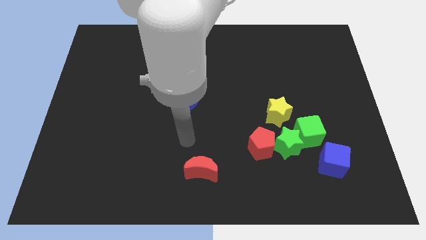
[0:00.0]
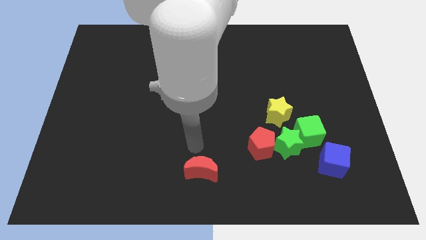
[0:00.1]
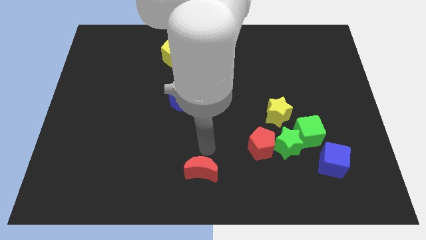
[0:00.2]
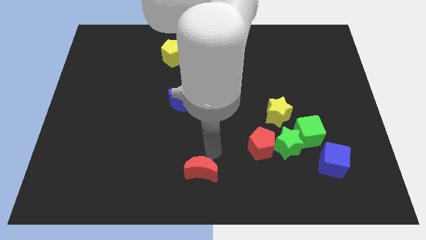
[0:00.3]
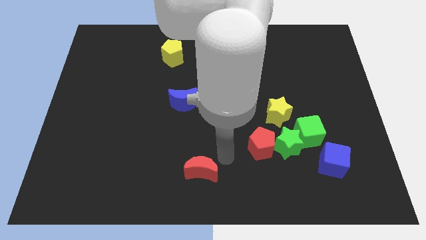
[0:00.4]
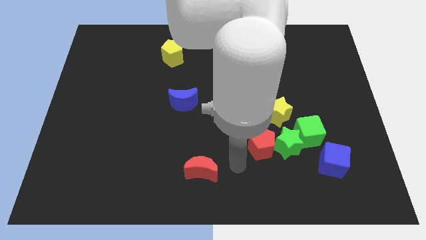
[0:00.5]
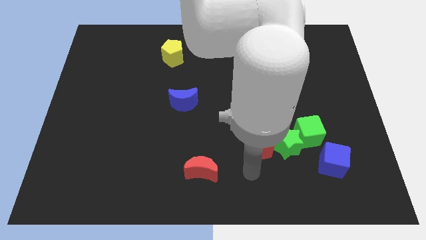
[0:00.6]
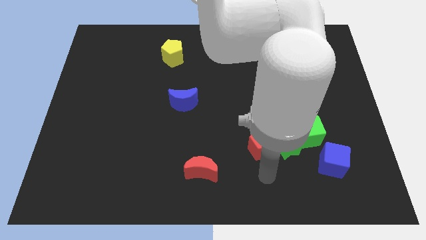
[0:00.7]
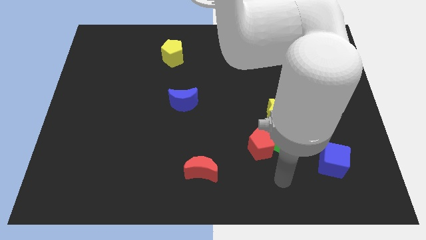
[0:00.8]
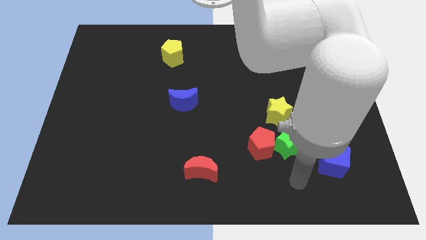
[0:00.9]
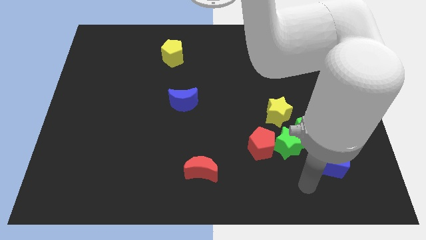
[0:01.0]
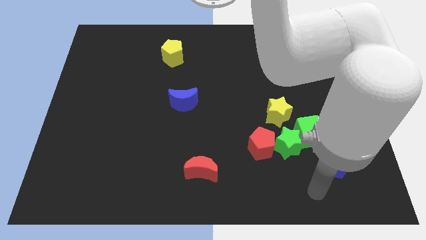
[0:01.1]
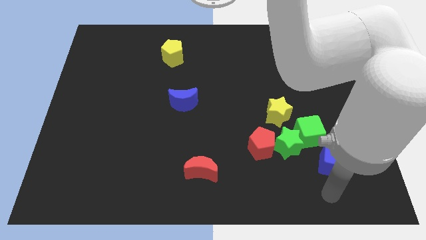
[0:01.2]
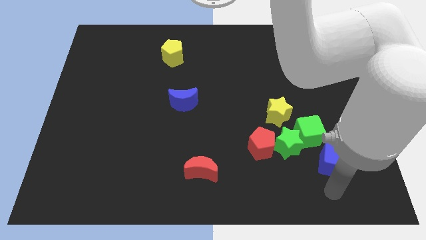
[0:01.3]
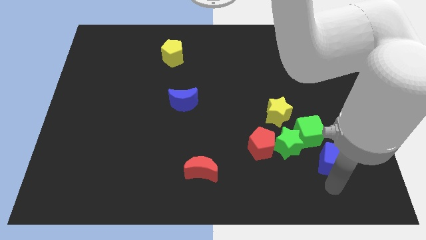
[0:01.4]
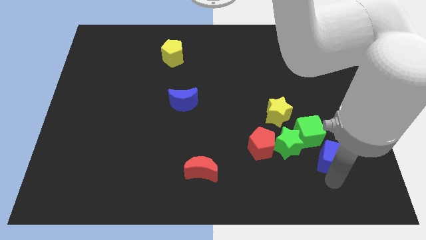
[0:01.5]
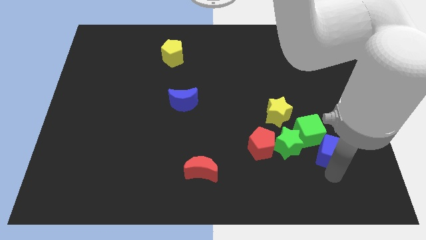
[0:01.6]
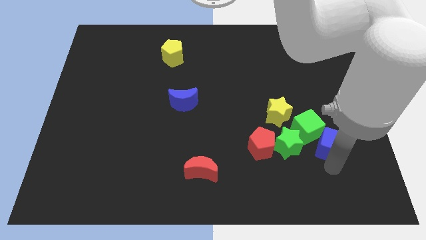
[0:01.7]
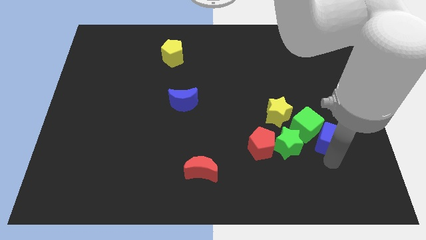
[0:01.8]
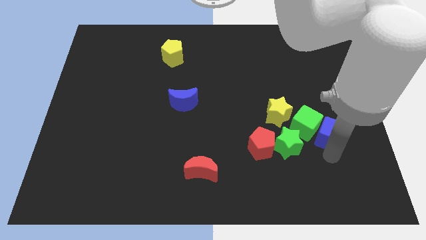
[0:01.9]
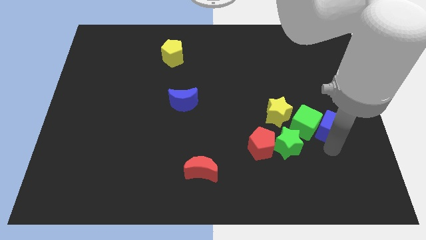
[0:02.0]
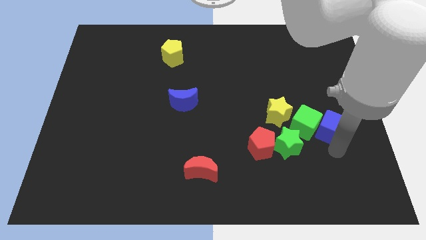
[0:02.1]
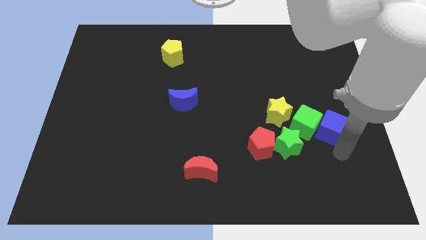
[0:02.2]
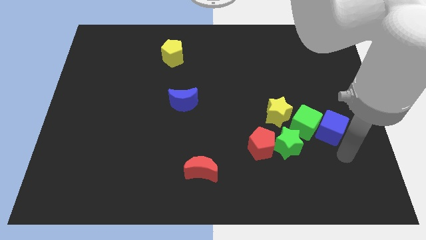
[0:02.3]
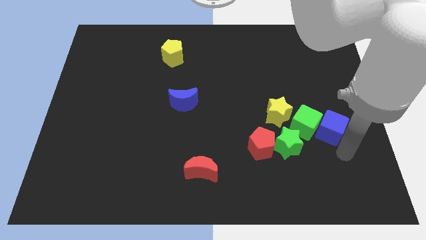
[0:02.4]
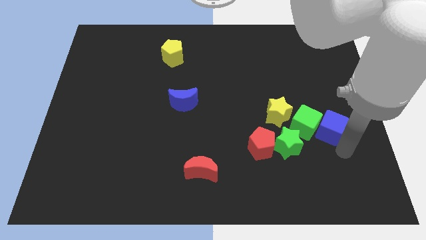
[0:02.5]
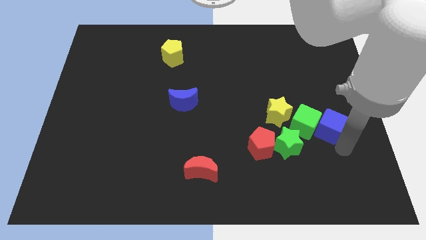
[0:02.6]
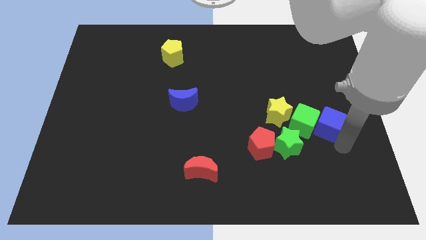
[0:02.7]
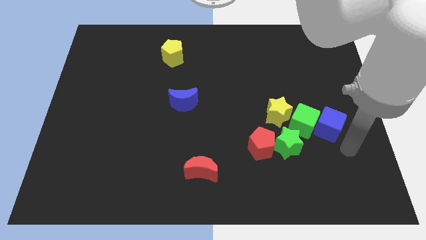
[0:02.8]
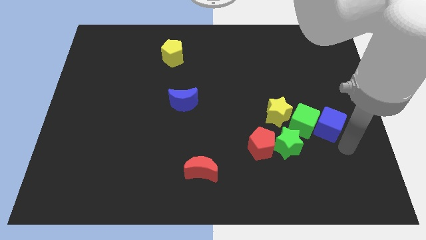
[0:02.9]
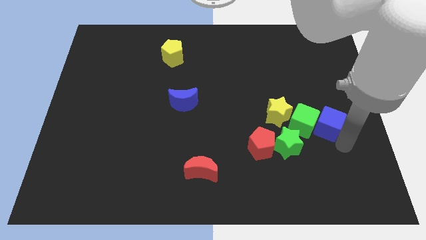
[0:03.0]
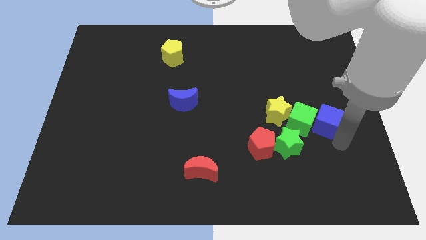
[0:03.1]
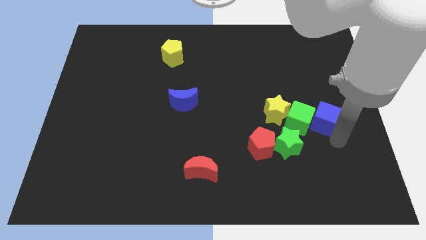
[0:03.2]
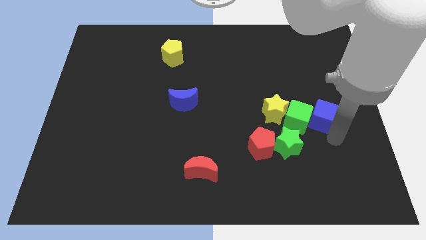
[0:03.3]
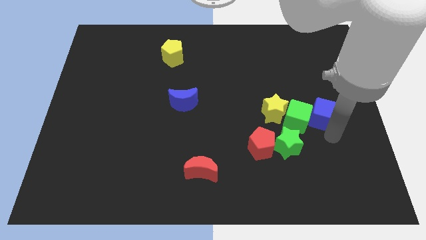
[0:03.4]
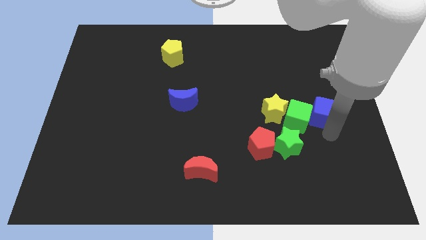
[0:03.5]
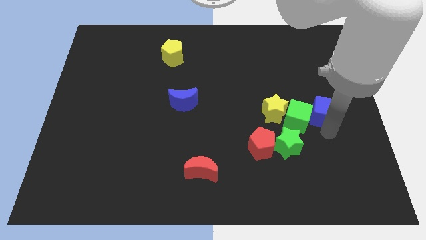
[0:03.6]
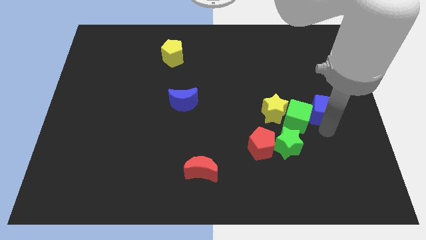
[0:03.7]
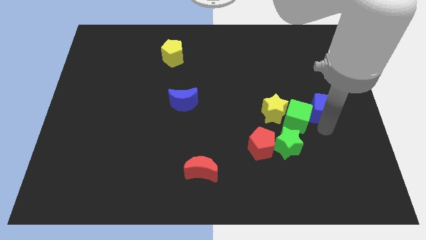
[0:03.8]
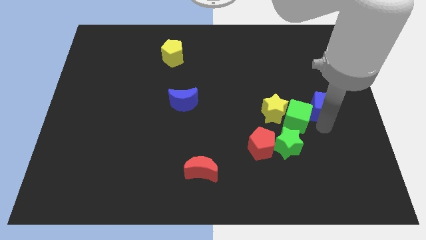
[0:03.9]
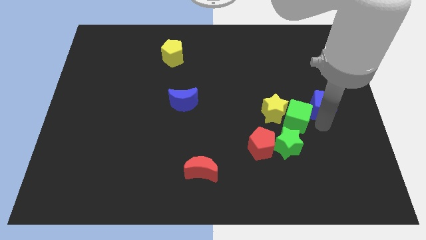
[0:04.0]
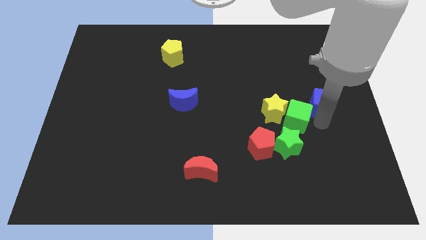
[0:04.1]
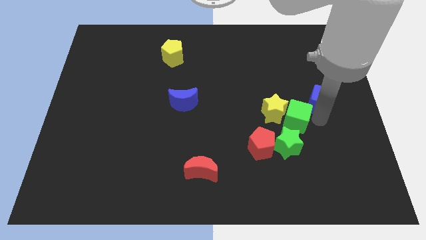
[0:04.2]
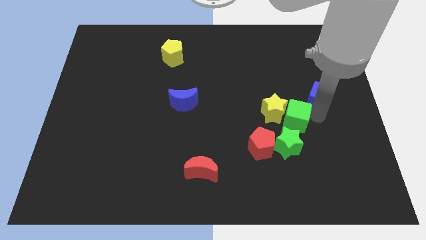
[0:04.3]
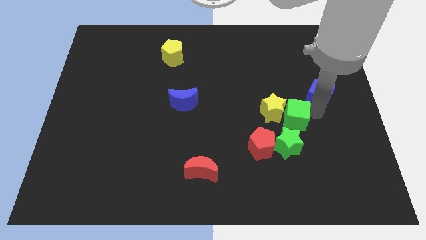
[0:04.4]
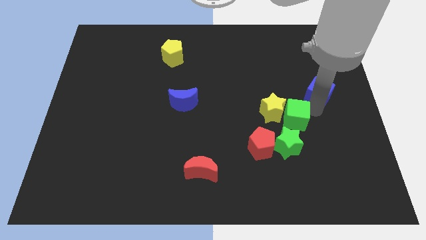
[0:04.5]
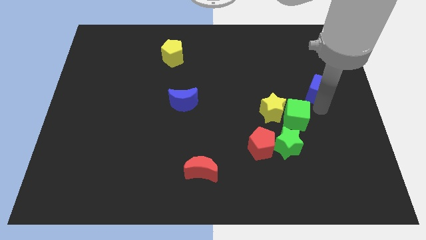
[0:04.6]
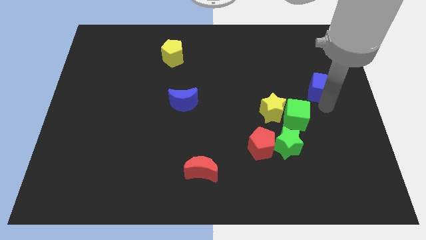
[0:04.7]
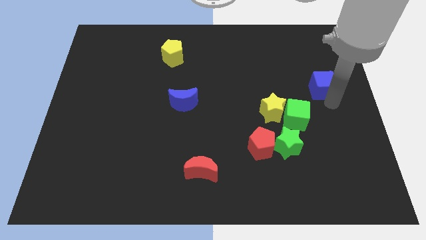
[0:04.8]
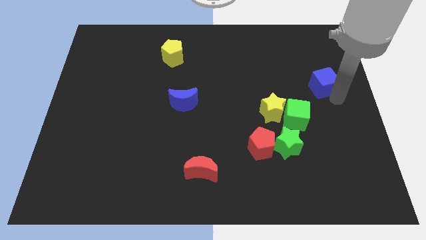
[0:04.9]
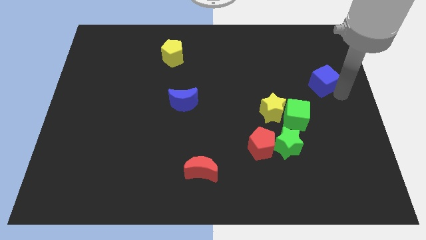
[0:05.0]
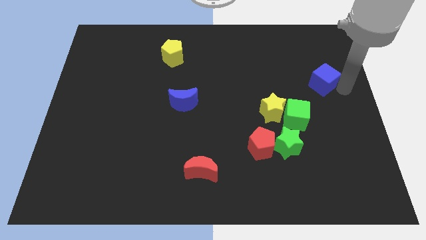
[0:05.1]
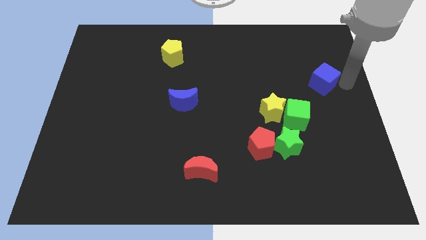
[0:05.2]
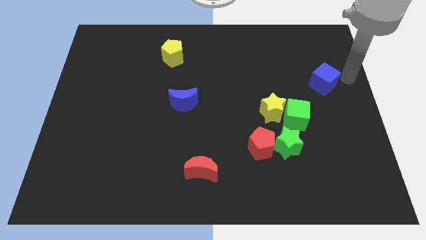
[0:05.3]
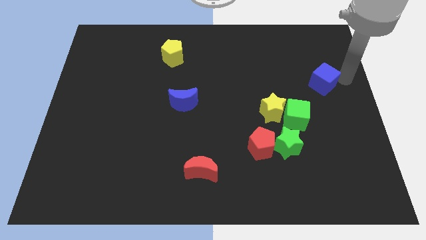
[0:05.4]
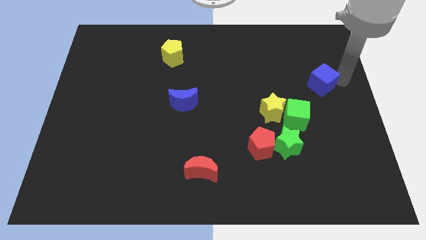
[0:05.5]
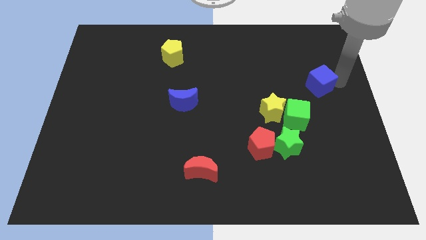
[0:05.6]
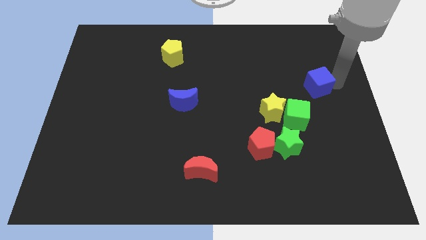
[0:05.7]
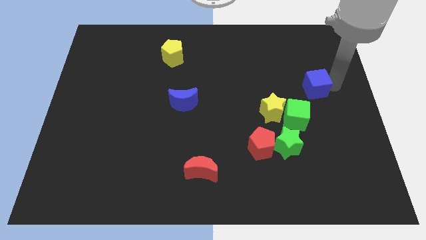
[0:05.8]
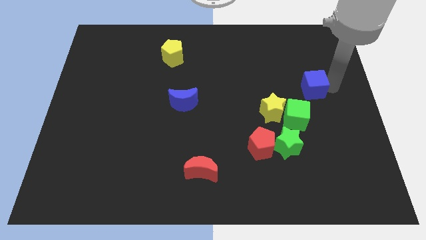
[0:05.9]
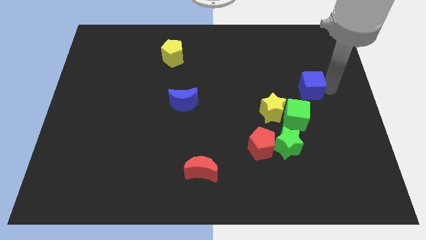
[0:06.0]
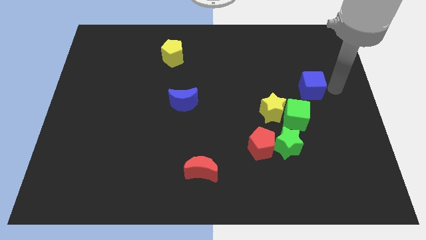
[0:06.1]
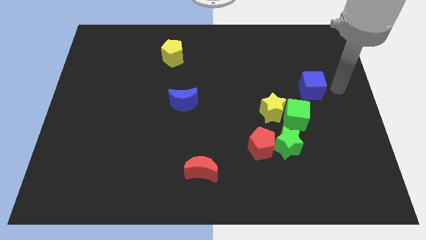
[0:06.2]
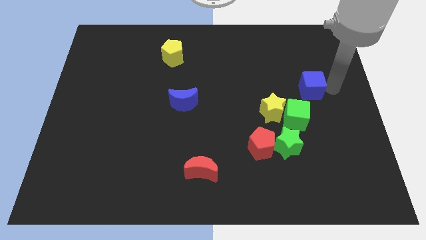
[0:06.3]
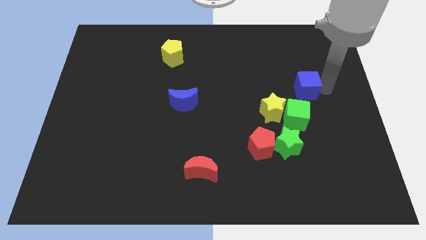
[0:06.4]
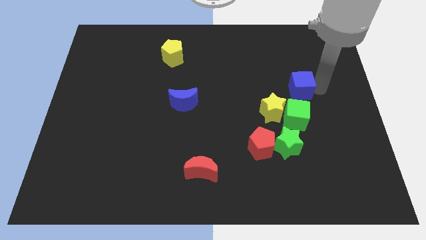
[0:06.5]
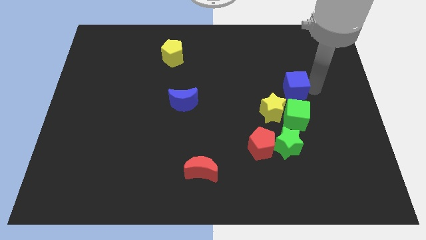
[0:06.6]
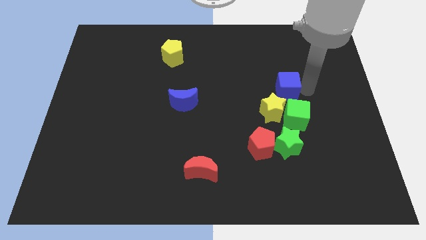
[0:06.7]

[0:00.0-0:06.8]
push the blue cube to the top side of the yellow star

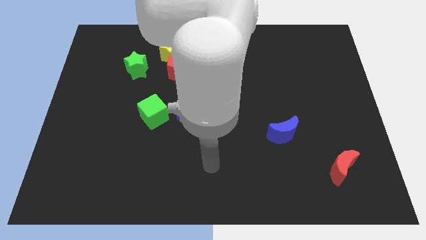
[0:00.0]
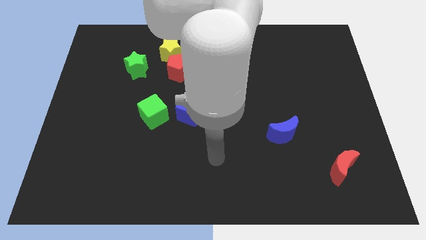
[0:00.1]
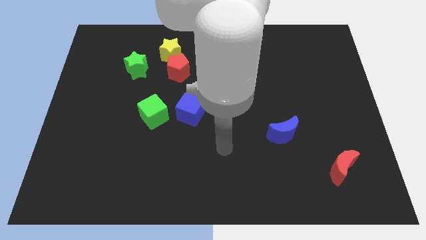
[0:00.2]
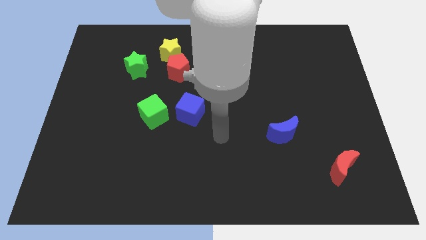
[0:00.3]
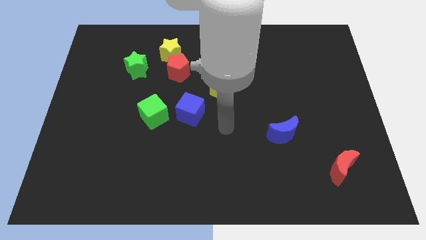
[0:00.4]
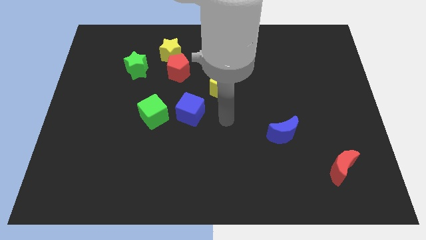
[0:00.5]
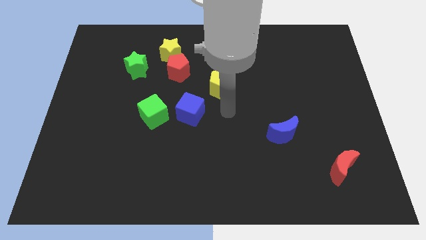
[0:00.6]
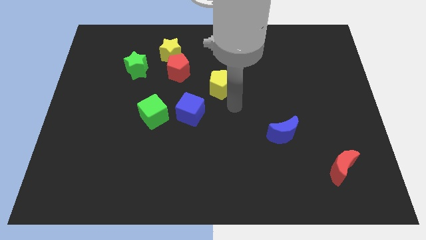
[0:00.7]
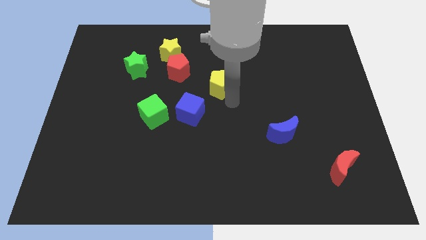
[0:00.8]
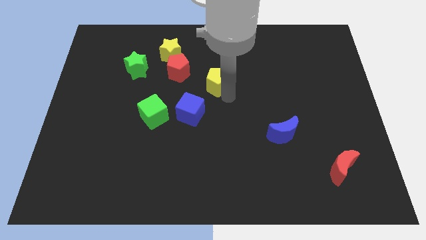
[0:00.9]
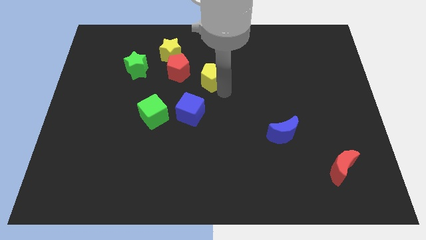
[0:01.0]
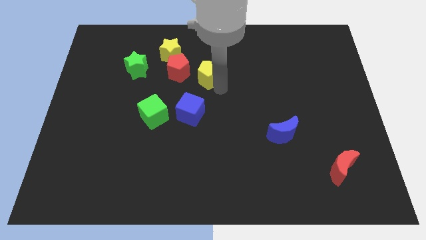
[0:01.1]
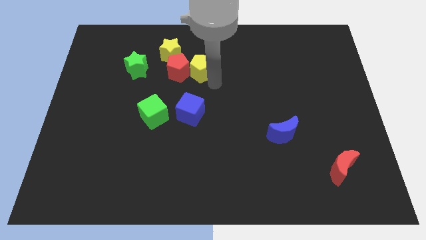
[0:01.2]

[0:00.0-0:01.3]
slide the yellow pentagon diagonally up and to the right of the red pentagon
